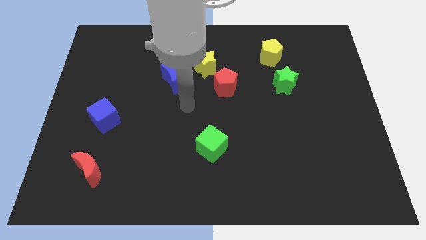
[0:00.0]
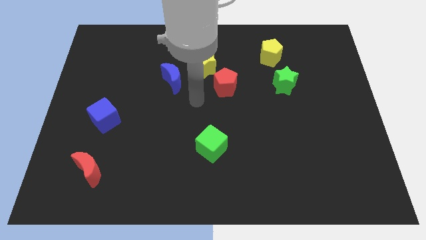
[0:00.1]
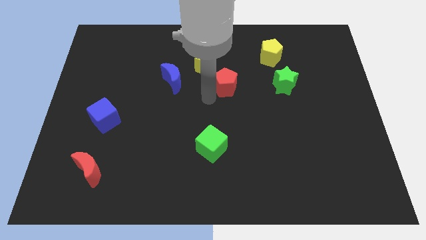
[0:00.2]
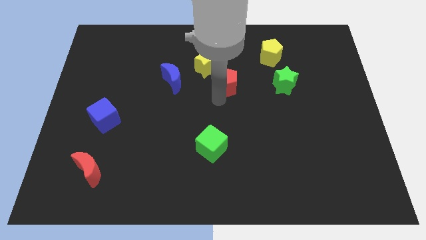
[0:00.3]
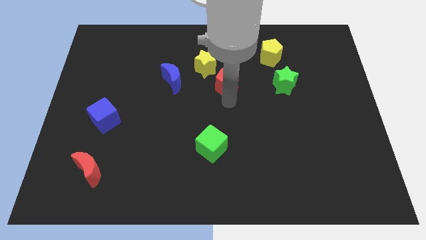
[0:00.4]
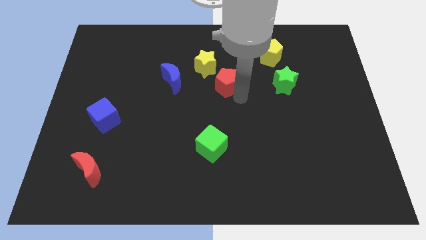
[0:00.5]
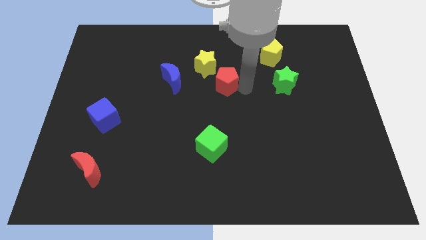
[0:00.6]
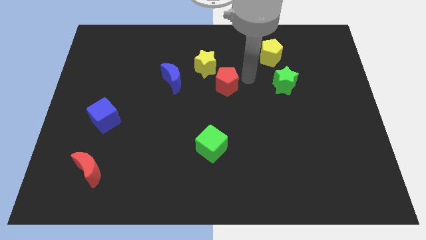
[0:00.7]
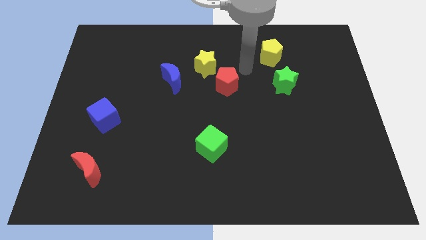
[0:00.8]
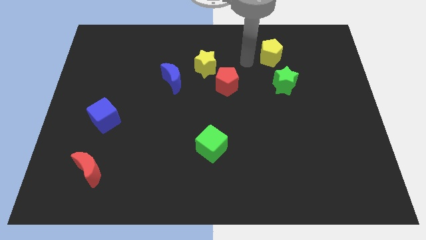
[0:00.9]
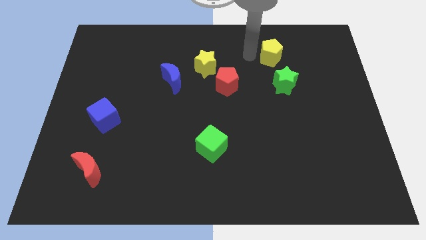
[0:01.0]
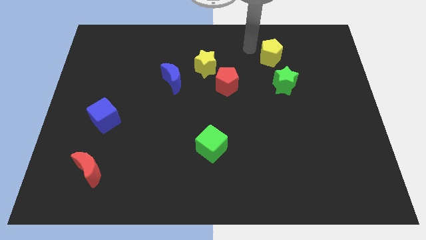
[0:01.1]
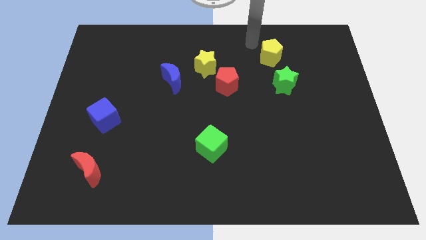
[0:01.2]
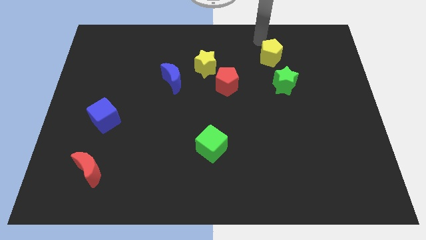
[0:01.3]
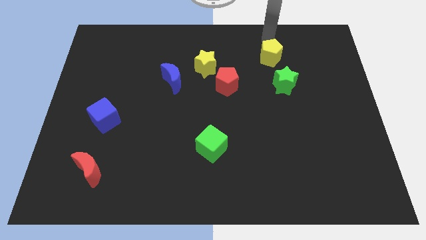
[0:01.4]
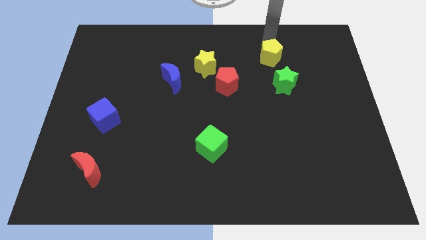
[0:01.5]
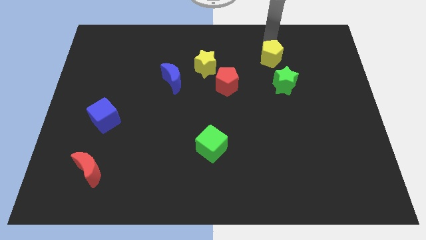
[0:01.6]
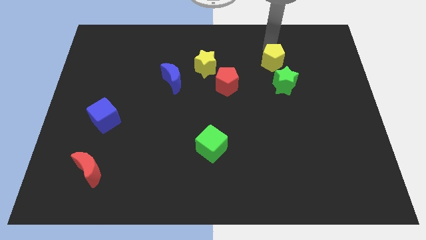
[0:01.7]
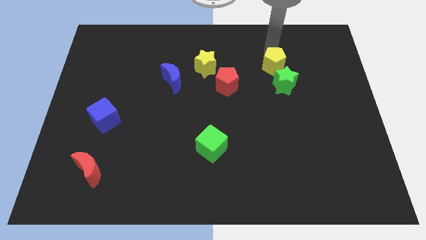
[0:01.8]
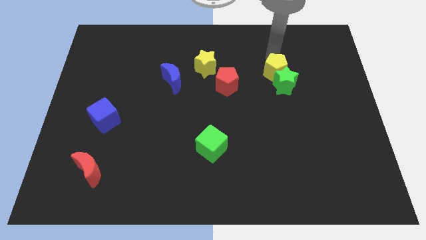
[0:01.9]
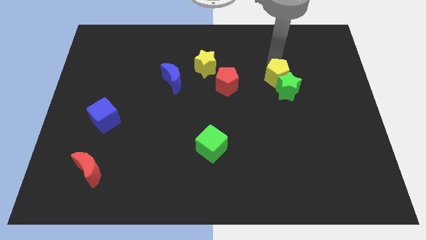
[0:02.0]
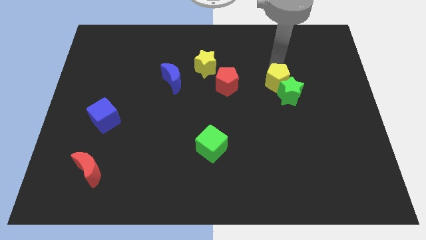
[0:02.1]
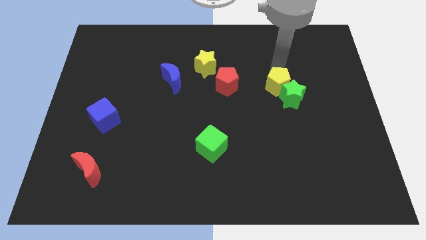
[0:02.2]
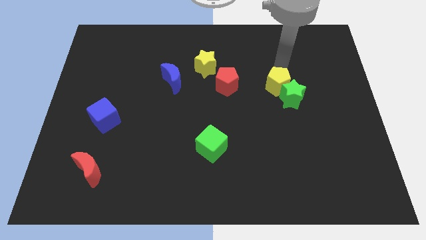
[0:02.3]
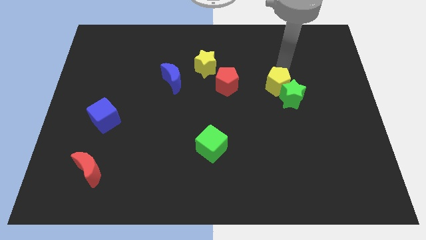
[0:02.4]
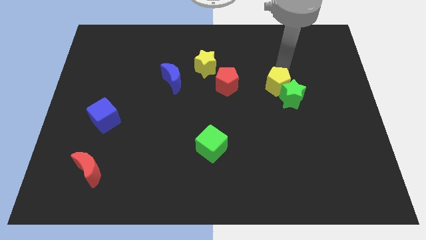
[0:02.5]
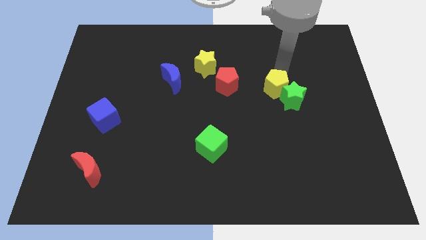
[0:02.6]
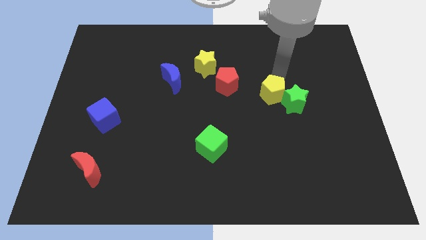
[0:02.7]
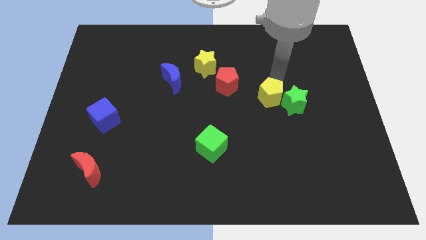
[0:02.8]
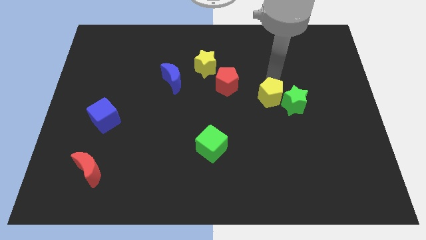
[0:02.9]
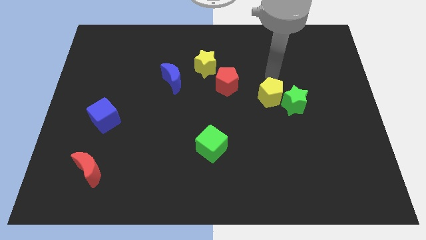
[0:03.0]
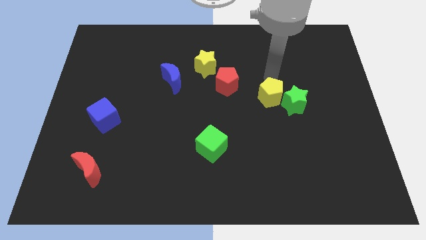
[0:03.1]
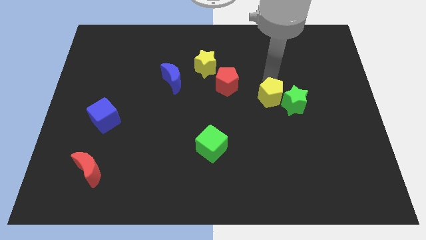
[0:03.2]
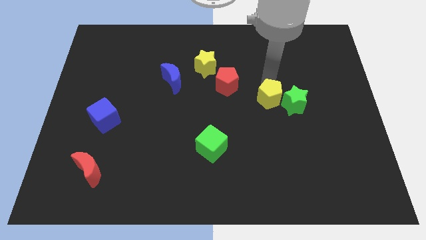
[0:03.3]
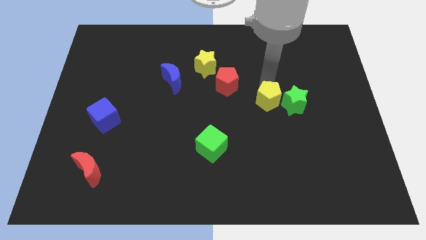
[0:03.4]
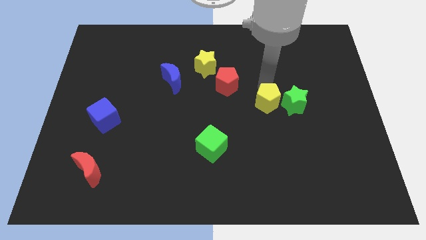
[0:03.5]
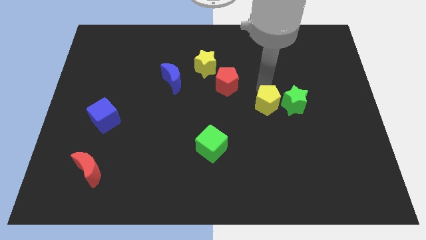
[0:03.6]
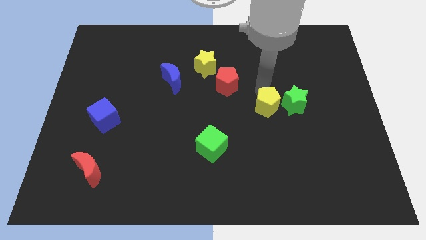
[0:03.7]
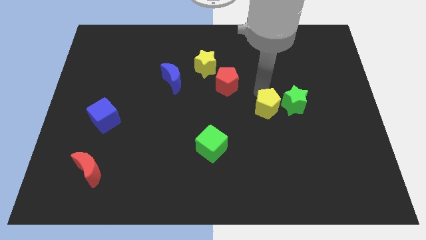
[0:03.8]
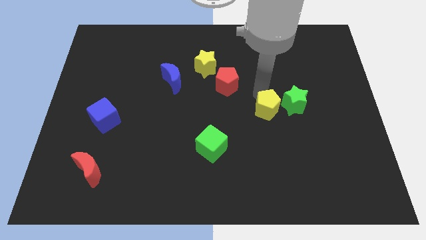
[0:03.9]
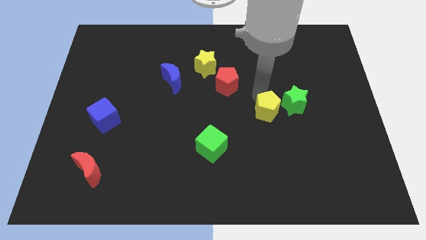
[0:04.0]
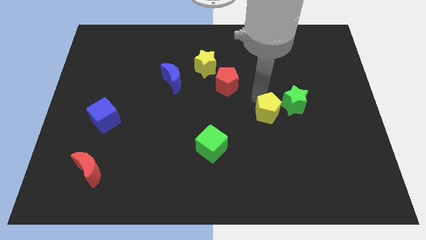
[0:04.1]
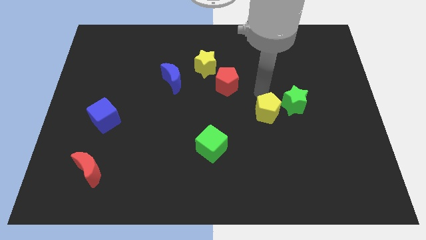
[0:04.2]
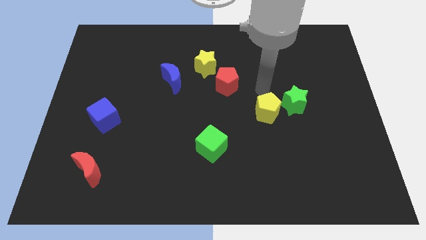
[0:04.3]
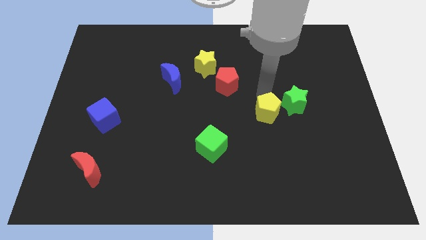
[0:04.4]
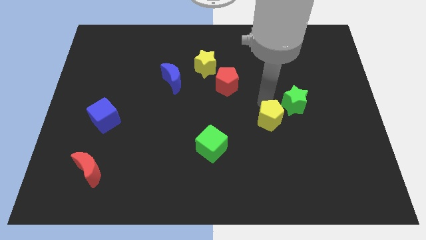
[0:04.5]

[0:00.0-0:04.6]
move the yellow pentagon down

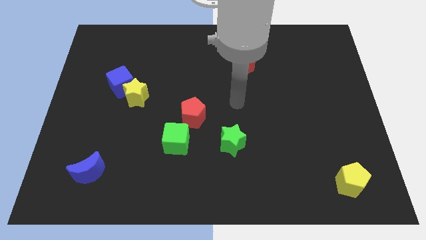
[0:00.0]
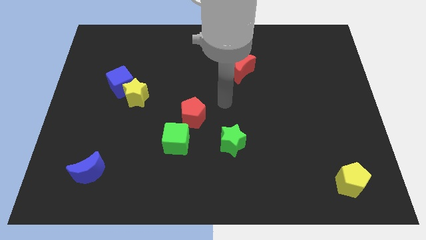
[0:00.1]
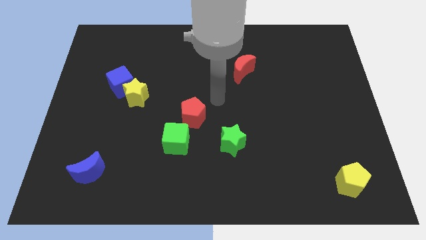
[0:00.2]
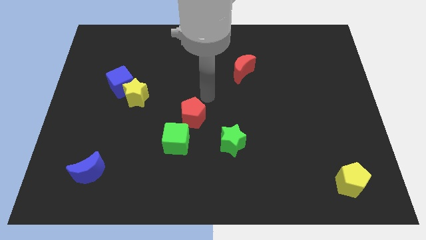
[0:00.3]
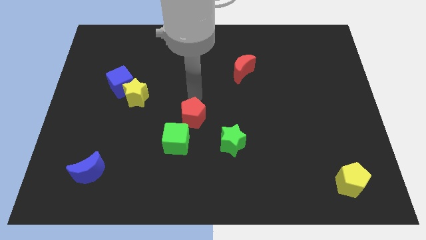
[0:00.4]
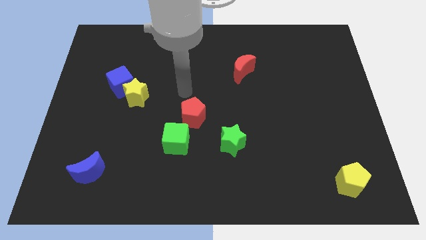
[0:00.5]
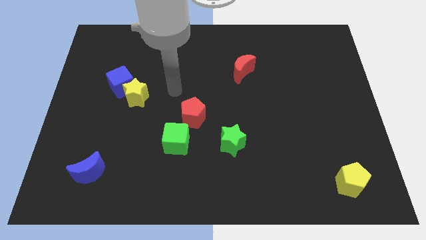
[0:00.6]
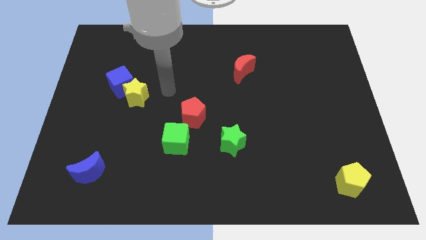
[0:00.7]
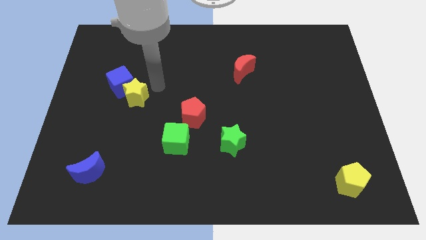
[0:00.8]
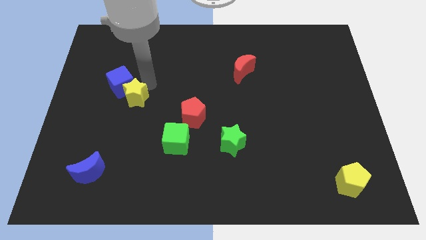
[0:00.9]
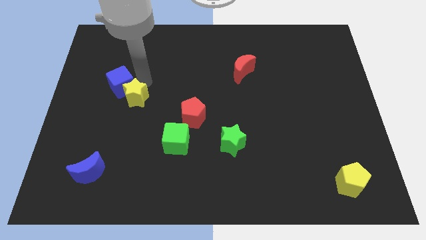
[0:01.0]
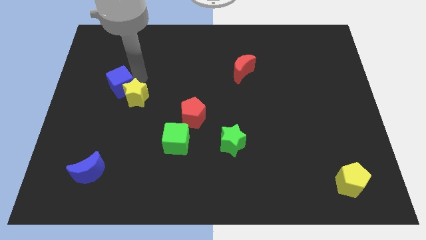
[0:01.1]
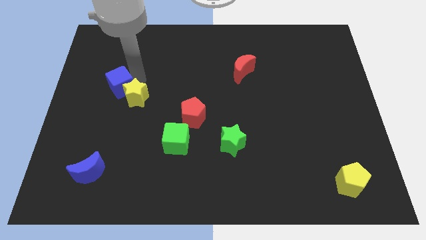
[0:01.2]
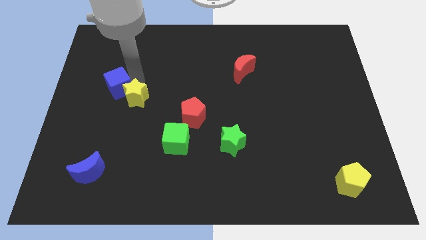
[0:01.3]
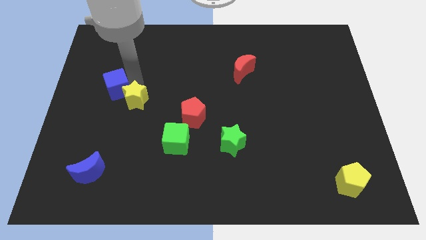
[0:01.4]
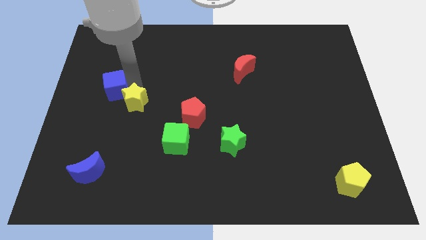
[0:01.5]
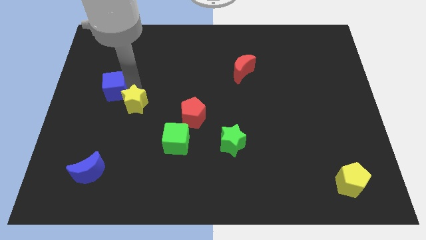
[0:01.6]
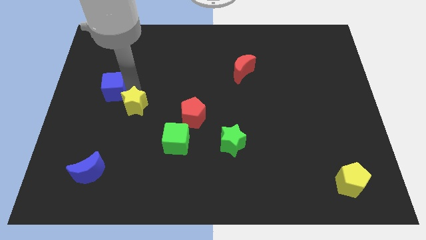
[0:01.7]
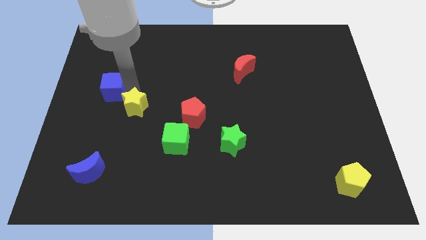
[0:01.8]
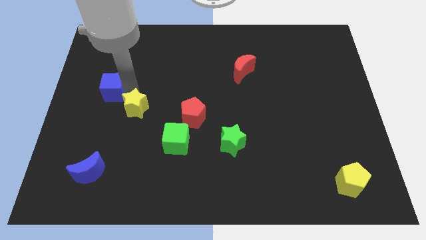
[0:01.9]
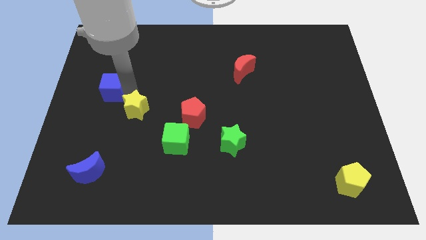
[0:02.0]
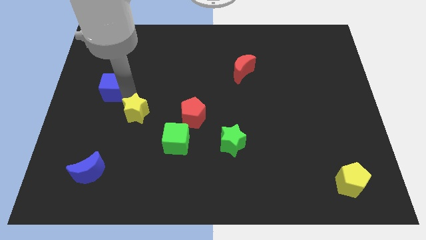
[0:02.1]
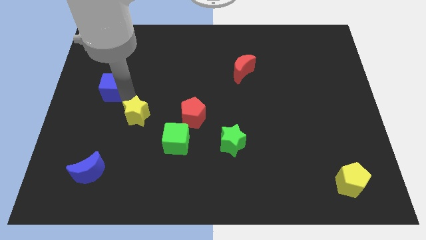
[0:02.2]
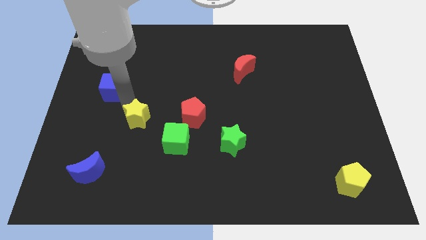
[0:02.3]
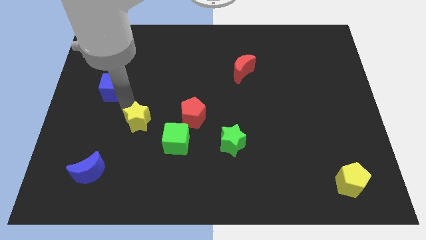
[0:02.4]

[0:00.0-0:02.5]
slide the yellow star down a little

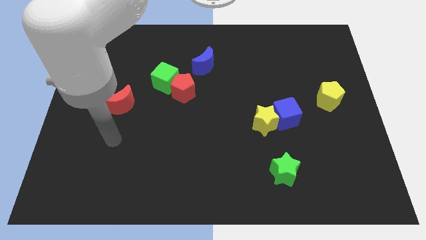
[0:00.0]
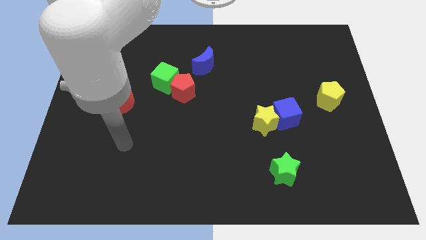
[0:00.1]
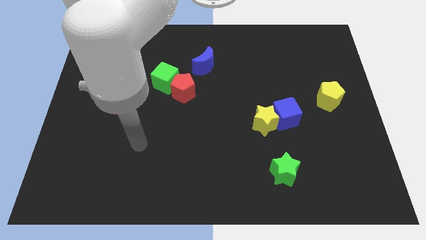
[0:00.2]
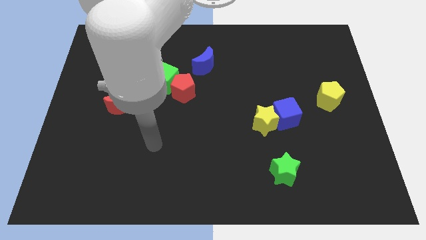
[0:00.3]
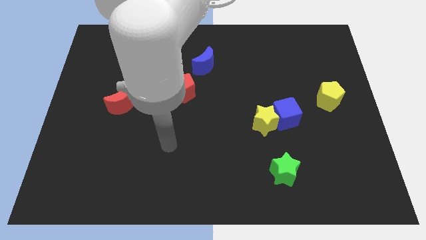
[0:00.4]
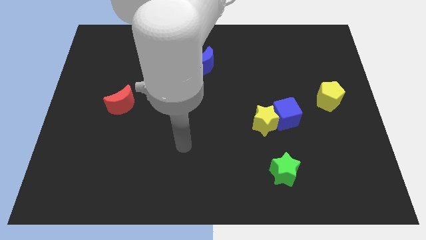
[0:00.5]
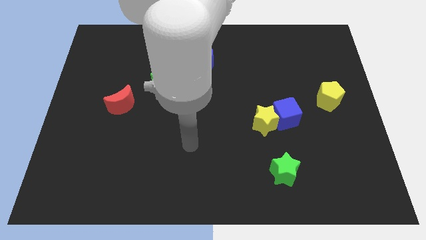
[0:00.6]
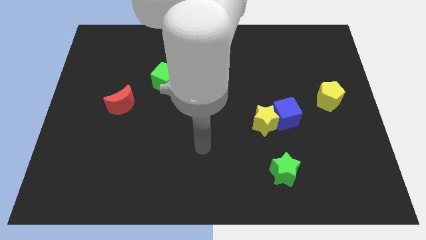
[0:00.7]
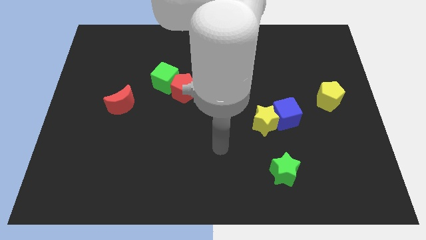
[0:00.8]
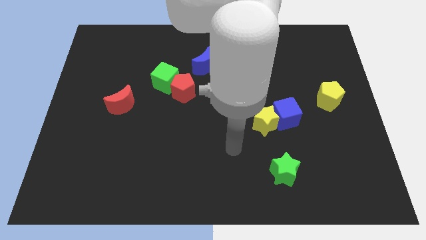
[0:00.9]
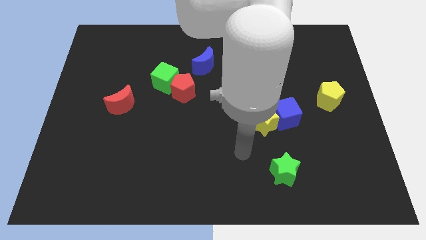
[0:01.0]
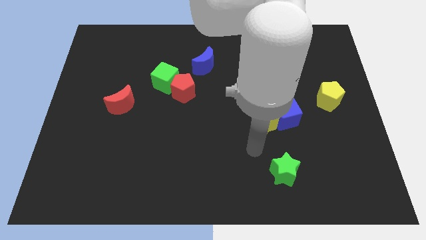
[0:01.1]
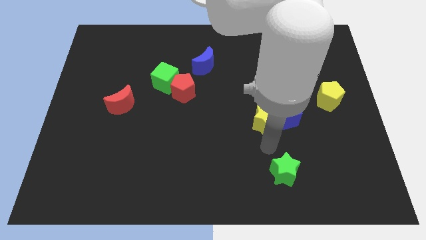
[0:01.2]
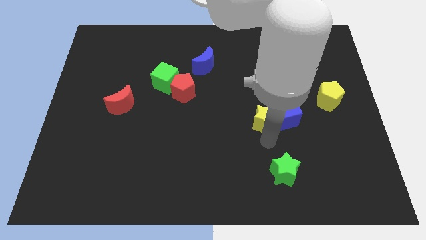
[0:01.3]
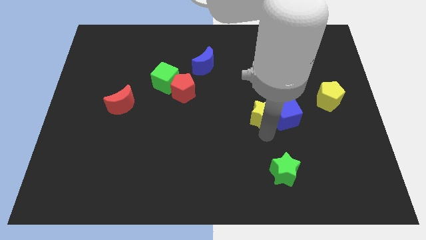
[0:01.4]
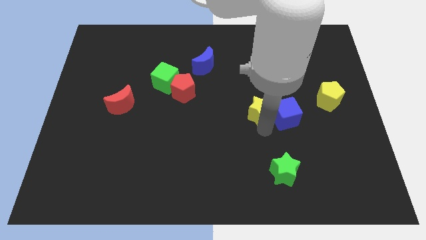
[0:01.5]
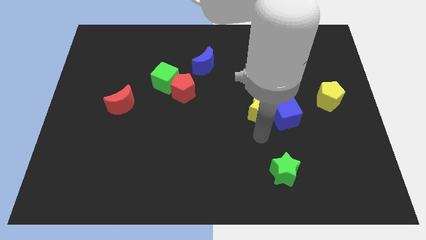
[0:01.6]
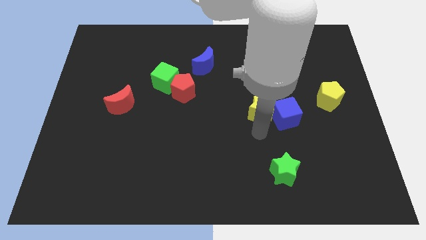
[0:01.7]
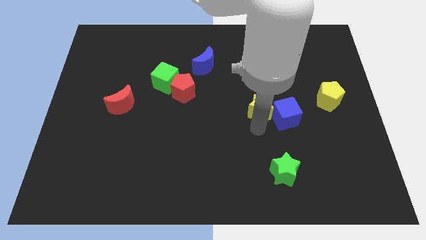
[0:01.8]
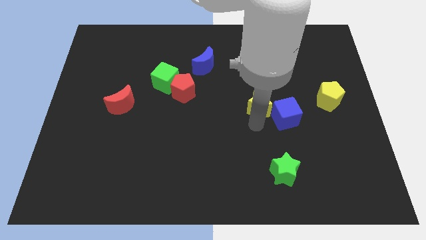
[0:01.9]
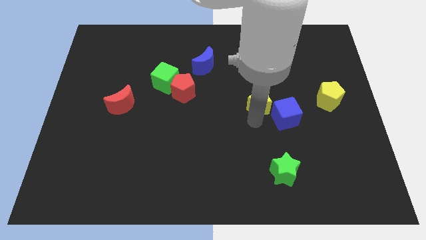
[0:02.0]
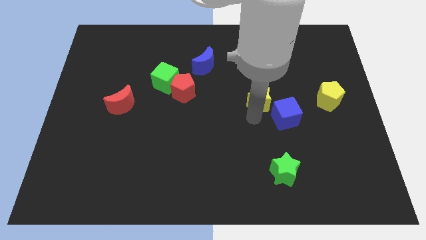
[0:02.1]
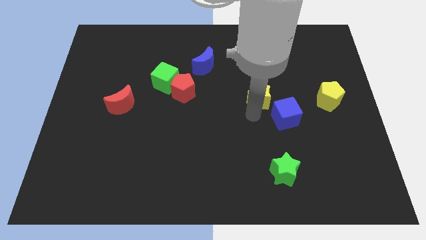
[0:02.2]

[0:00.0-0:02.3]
move the yellow star upwards a bit
